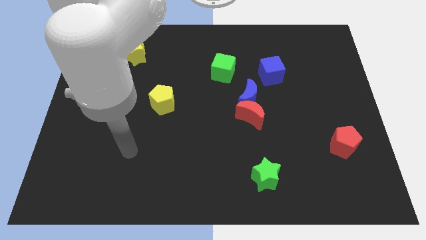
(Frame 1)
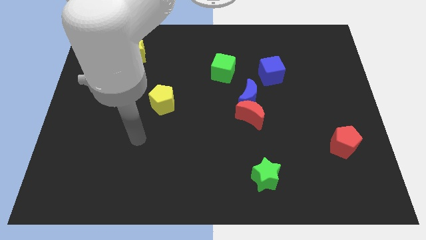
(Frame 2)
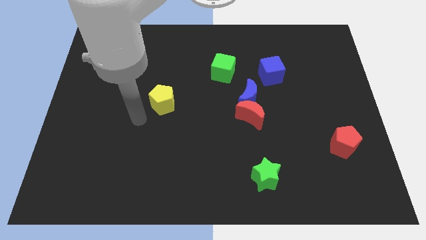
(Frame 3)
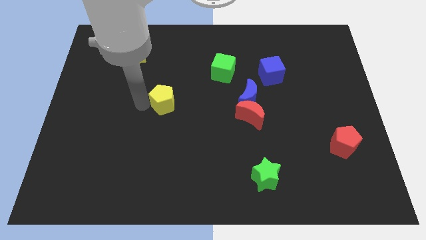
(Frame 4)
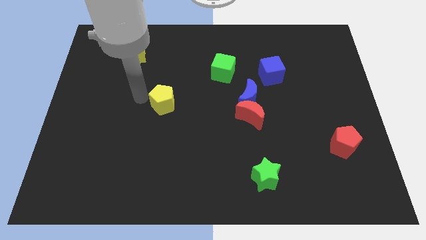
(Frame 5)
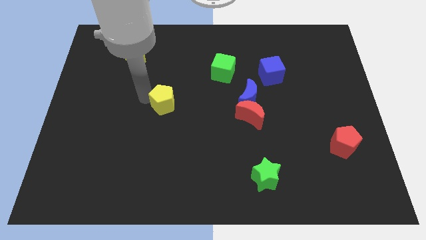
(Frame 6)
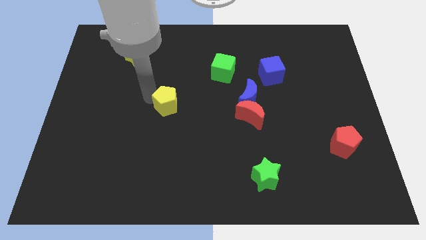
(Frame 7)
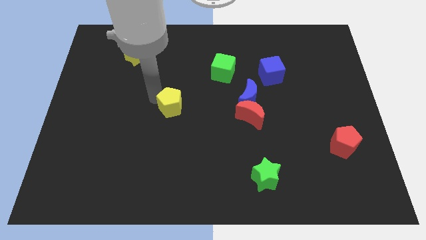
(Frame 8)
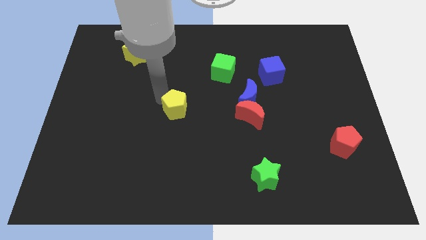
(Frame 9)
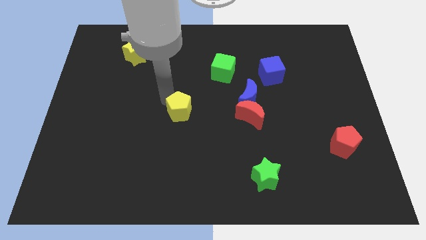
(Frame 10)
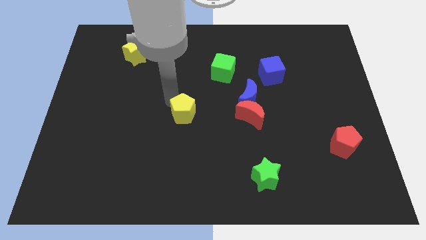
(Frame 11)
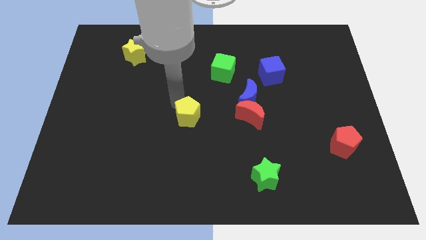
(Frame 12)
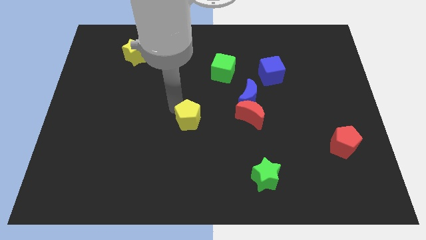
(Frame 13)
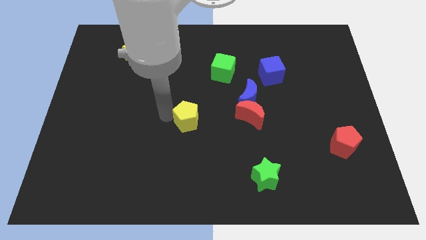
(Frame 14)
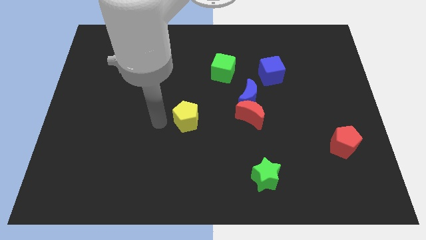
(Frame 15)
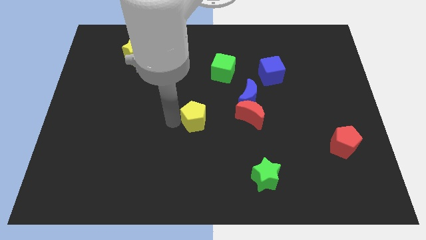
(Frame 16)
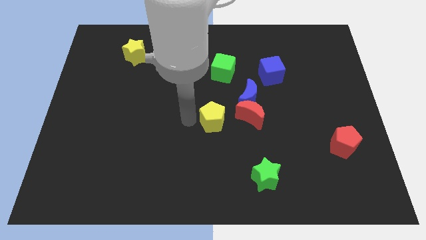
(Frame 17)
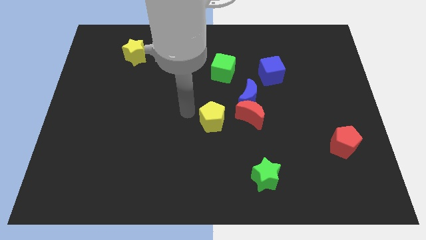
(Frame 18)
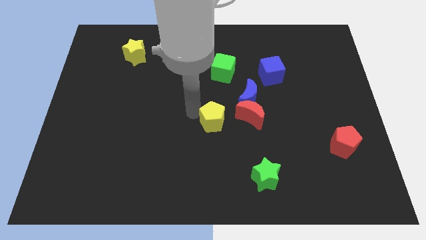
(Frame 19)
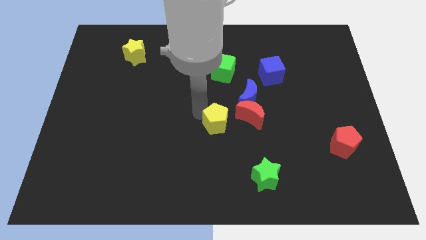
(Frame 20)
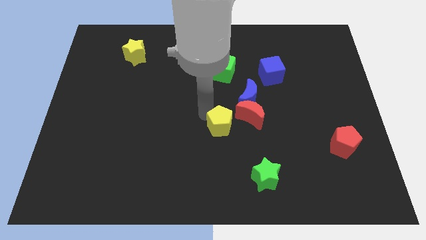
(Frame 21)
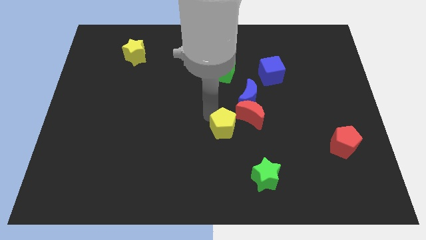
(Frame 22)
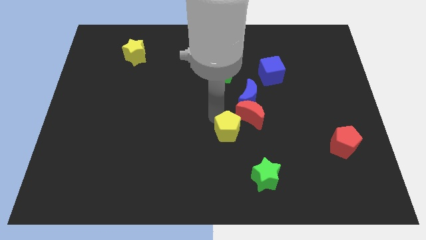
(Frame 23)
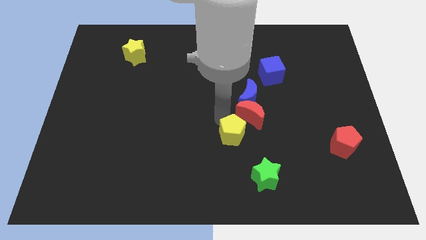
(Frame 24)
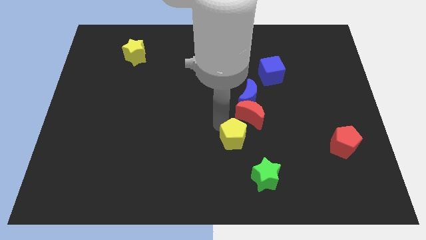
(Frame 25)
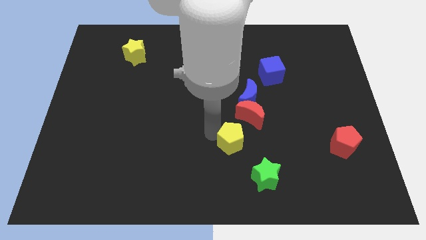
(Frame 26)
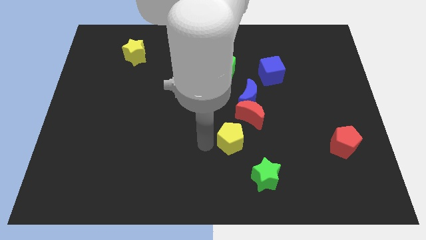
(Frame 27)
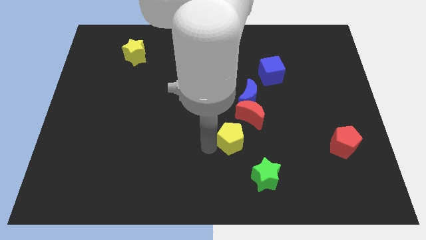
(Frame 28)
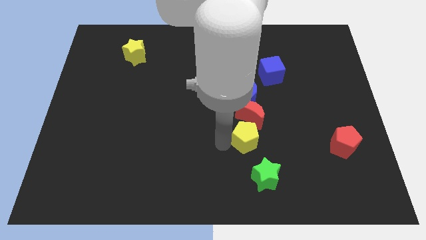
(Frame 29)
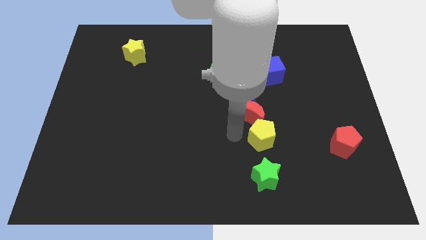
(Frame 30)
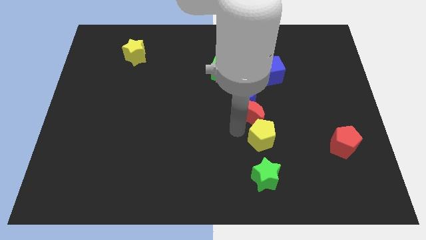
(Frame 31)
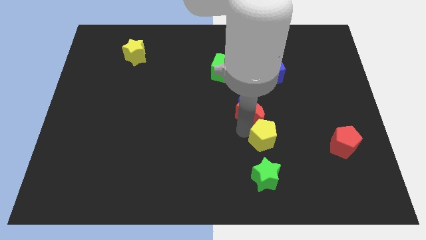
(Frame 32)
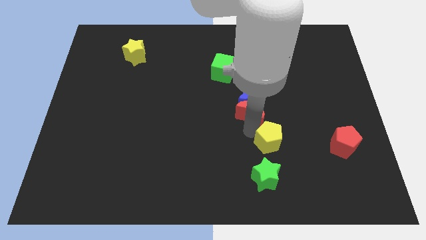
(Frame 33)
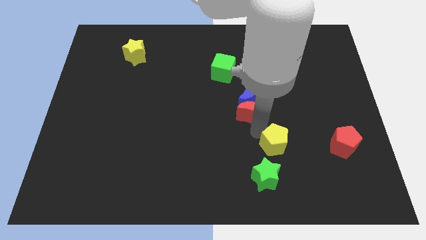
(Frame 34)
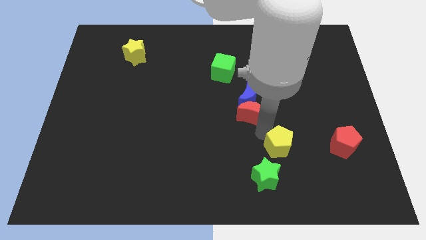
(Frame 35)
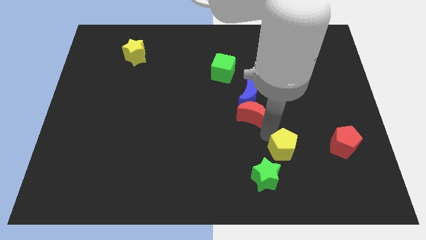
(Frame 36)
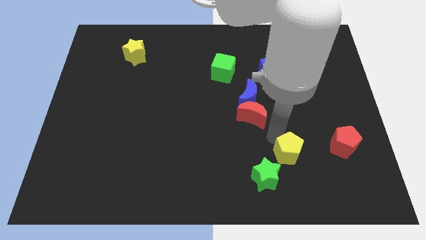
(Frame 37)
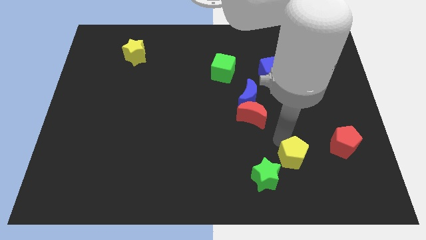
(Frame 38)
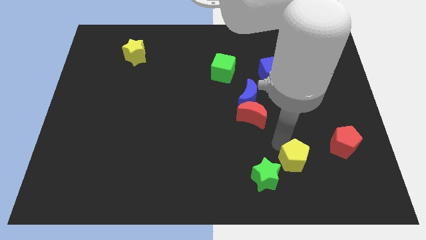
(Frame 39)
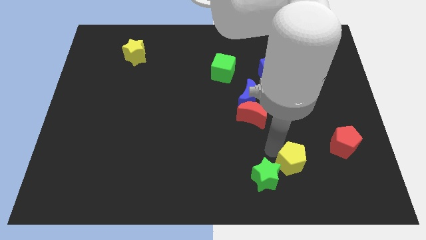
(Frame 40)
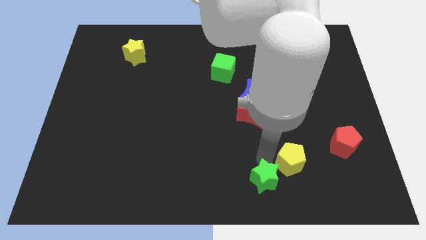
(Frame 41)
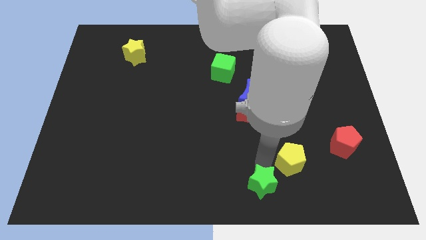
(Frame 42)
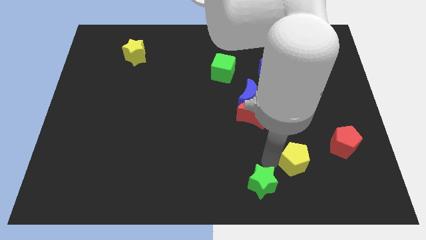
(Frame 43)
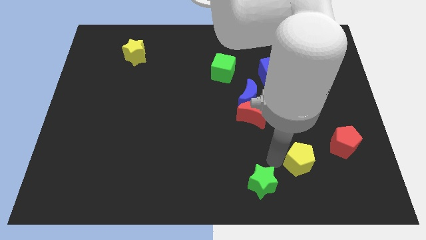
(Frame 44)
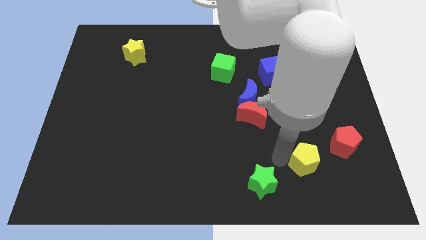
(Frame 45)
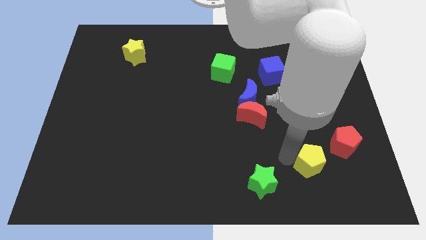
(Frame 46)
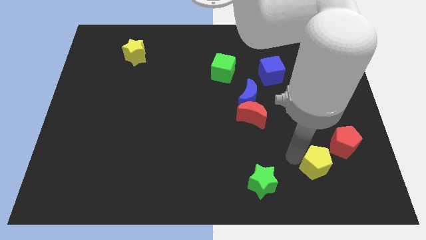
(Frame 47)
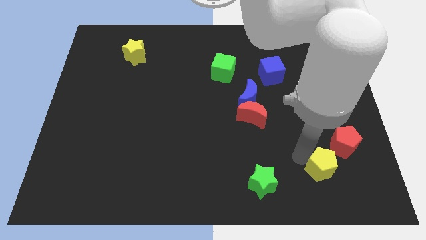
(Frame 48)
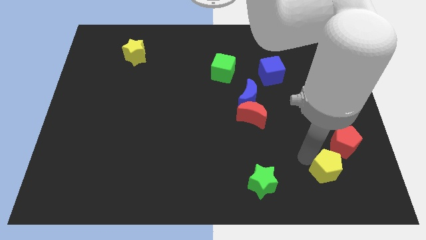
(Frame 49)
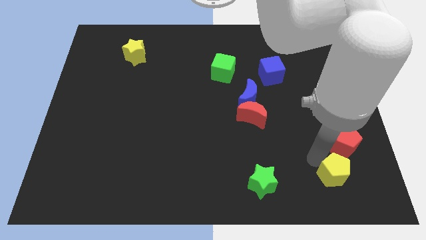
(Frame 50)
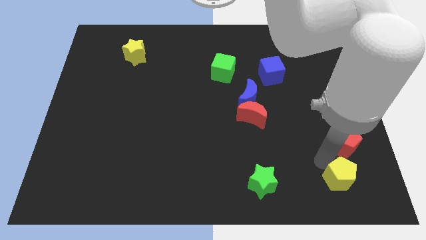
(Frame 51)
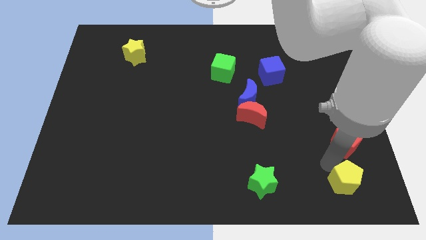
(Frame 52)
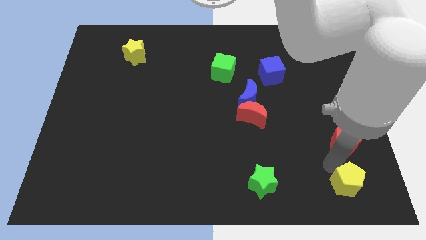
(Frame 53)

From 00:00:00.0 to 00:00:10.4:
slide the yellow pentagon to the bottom right corner
